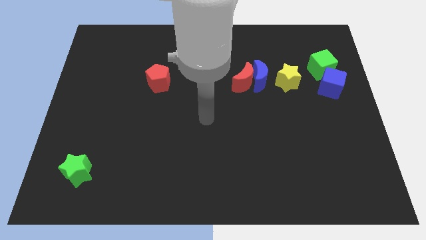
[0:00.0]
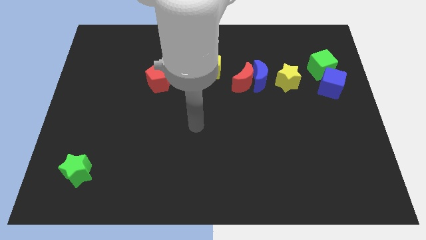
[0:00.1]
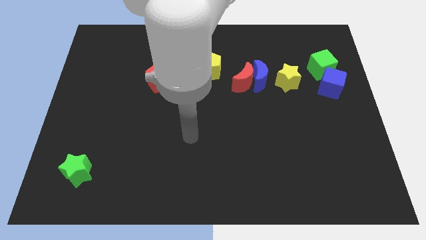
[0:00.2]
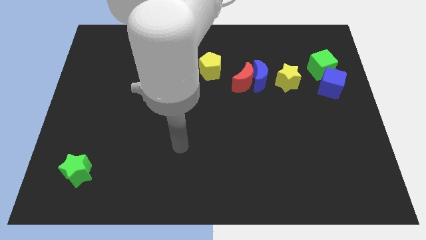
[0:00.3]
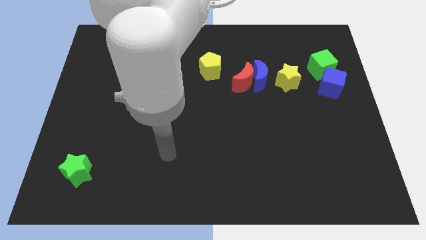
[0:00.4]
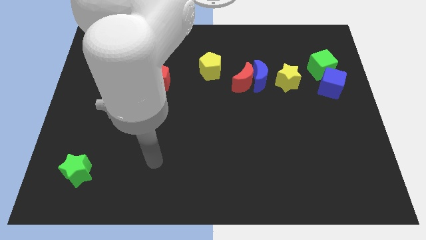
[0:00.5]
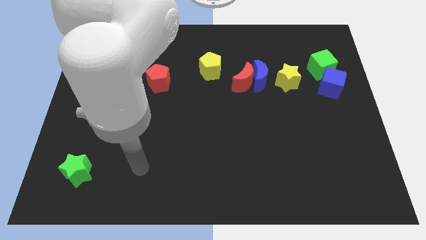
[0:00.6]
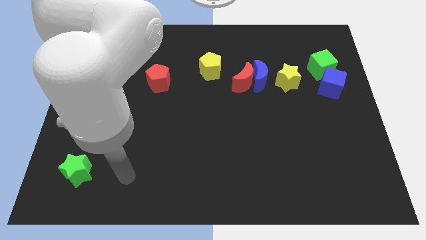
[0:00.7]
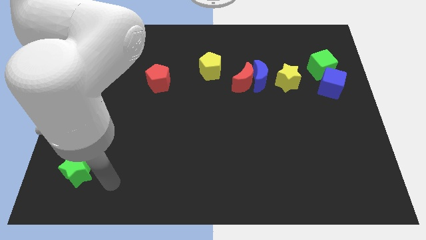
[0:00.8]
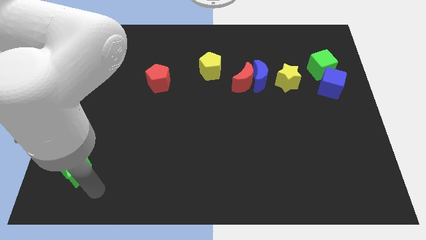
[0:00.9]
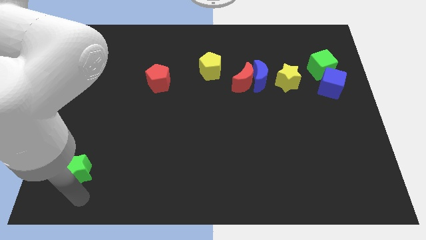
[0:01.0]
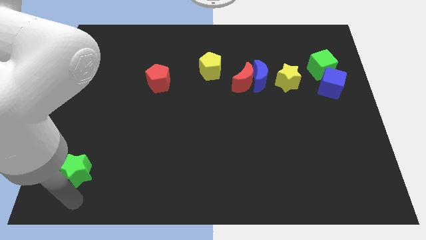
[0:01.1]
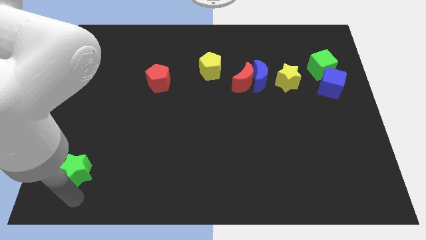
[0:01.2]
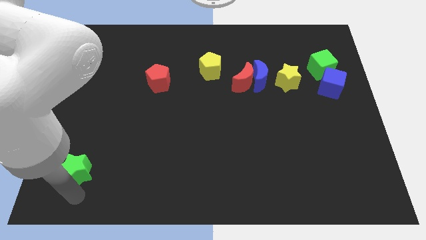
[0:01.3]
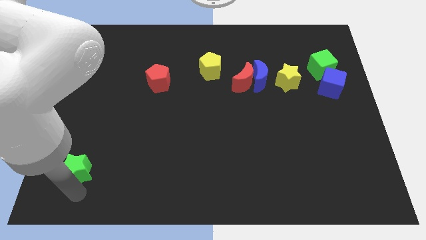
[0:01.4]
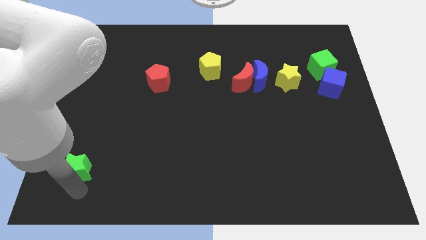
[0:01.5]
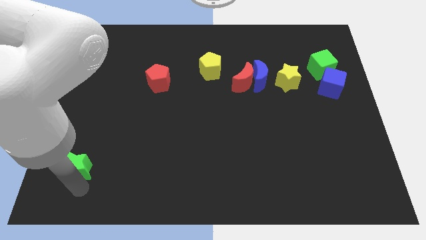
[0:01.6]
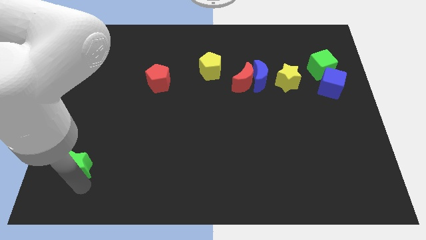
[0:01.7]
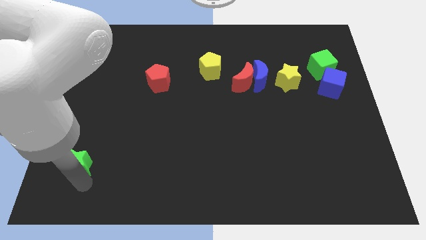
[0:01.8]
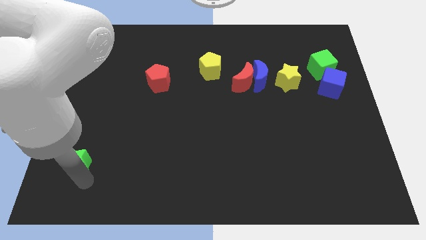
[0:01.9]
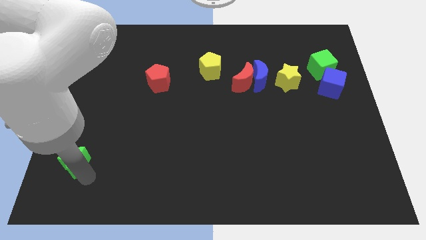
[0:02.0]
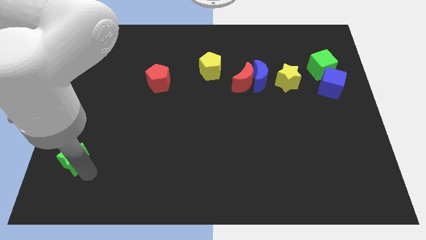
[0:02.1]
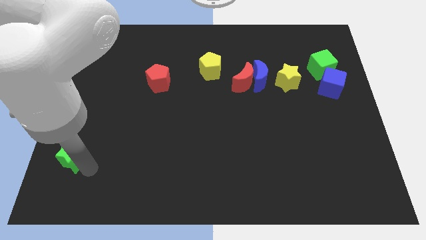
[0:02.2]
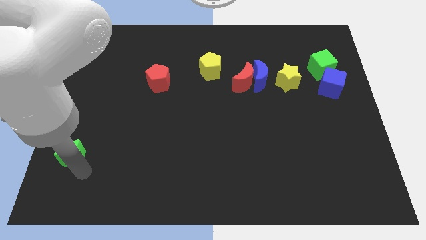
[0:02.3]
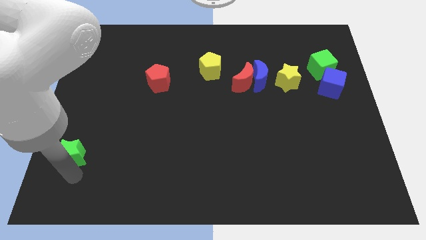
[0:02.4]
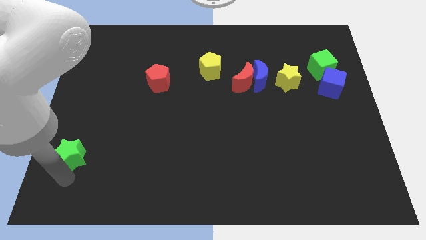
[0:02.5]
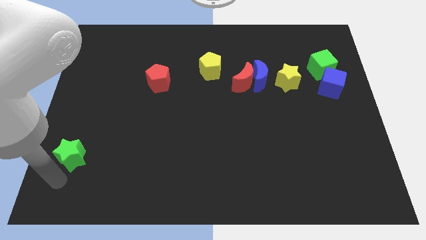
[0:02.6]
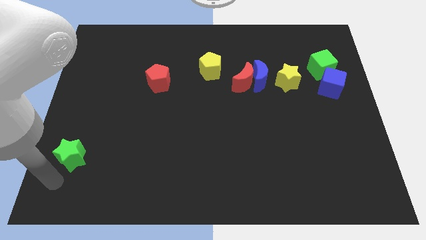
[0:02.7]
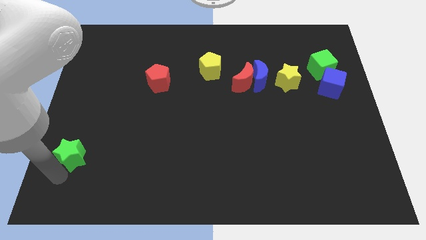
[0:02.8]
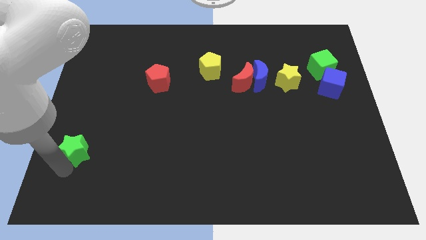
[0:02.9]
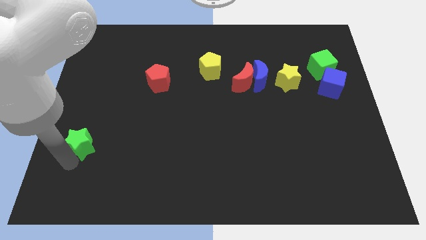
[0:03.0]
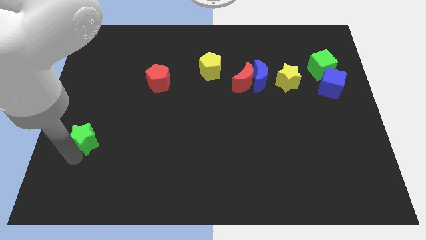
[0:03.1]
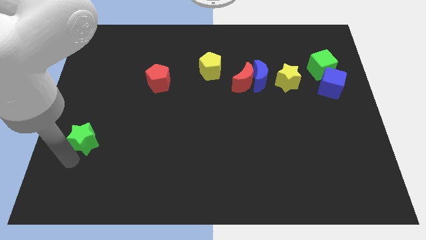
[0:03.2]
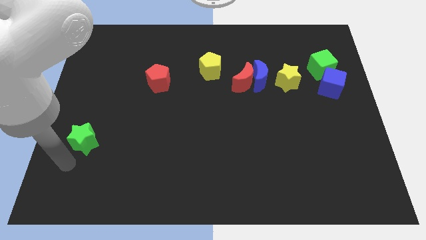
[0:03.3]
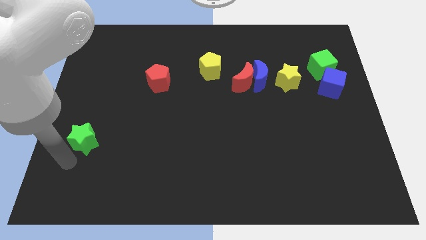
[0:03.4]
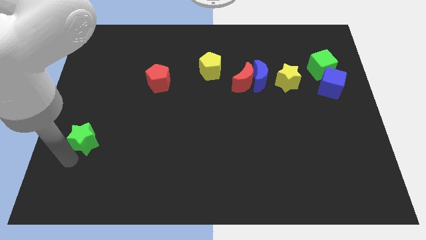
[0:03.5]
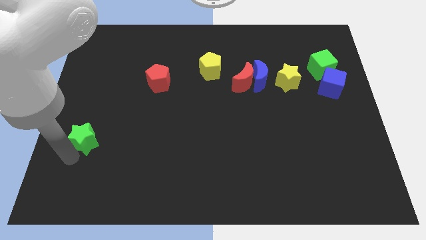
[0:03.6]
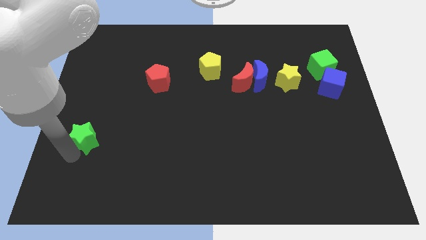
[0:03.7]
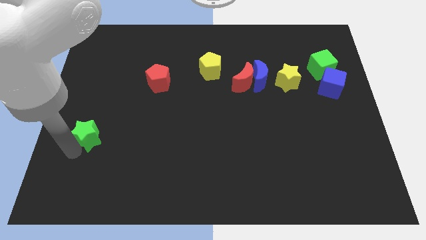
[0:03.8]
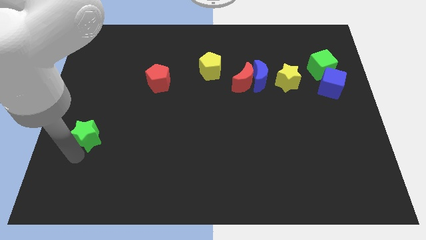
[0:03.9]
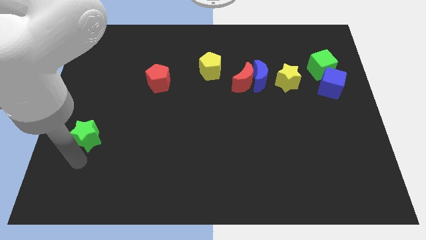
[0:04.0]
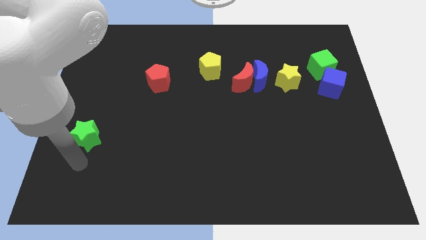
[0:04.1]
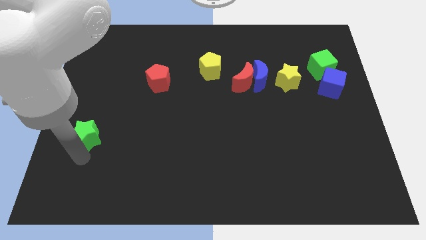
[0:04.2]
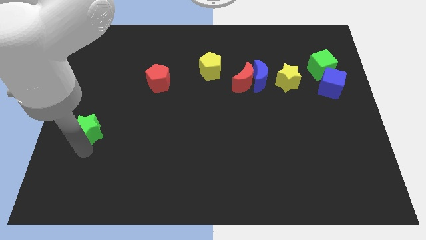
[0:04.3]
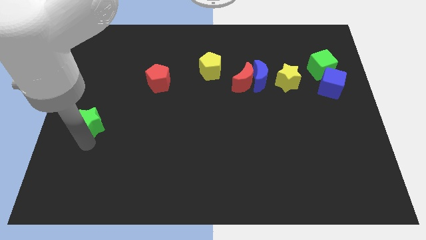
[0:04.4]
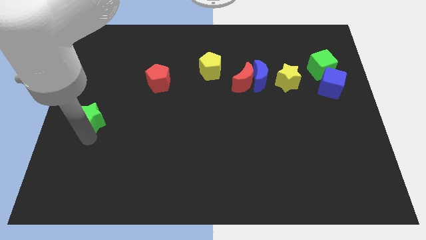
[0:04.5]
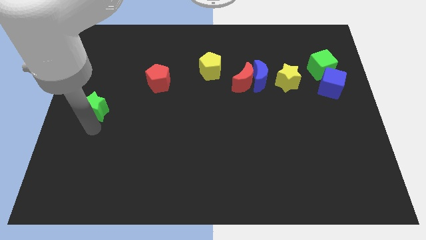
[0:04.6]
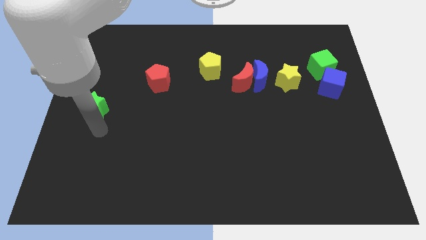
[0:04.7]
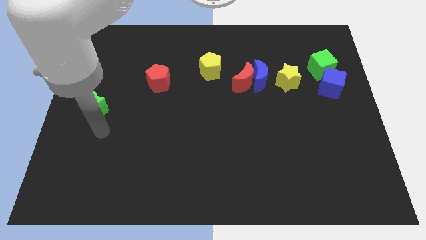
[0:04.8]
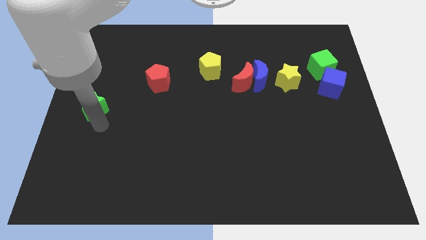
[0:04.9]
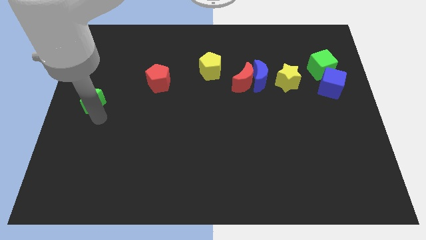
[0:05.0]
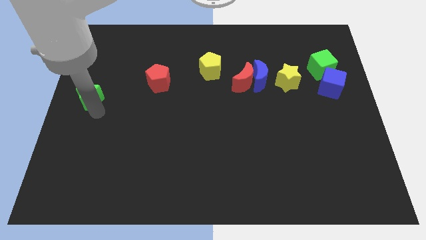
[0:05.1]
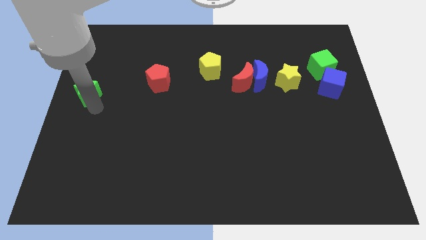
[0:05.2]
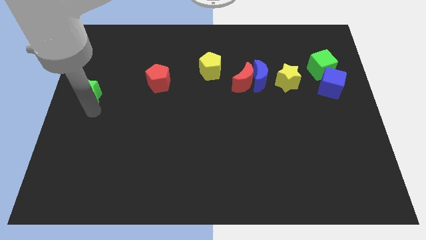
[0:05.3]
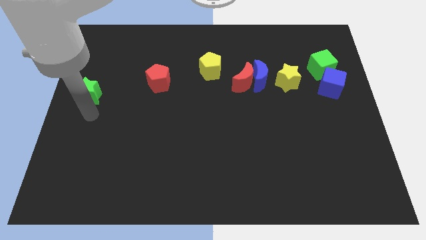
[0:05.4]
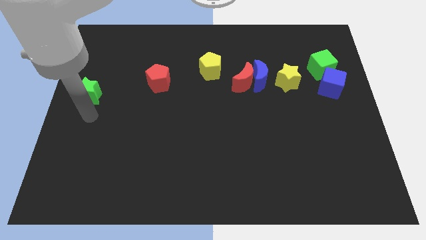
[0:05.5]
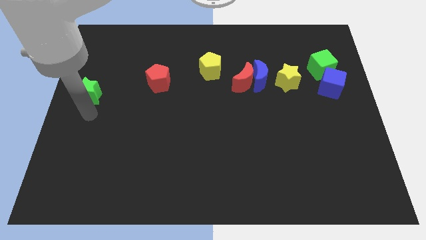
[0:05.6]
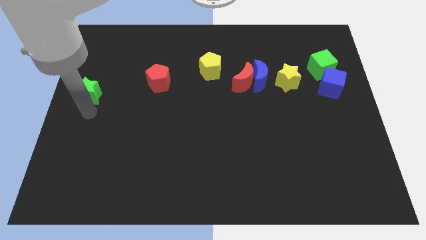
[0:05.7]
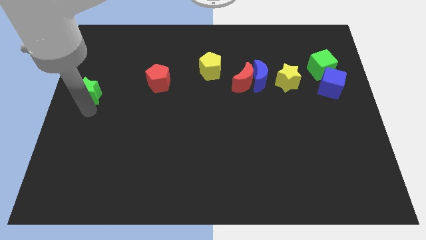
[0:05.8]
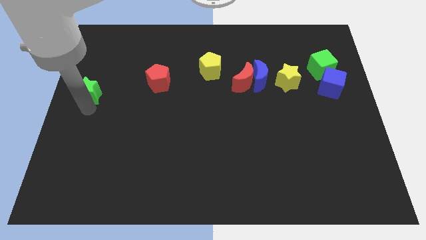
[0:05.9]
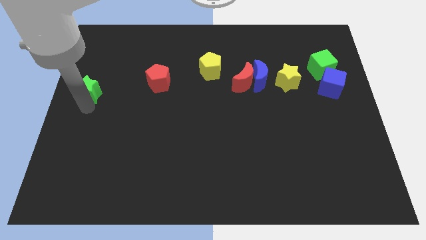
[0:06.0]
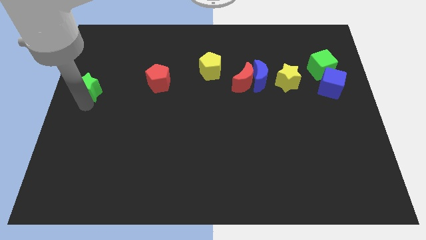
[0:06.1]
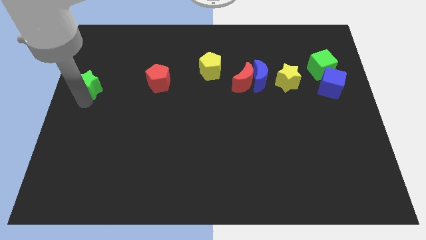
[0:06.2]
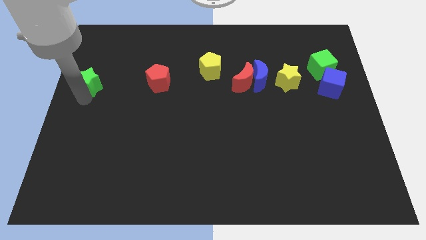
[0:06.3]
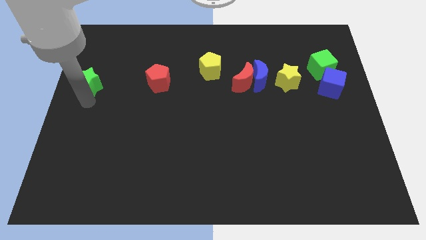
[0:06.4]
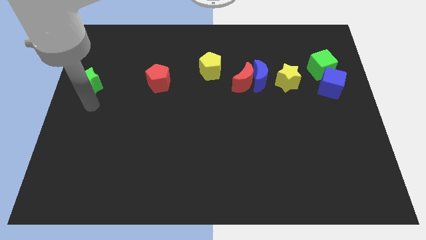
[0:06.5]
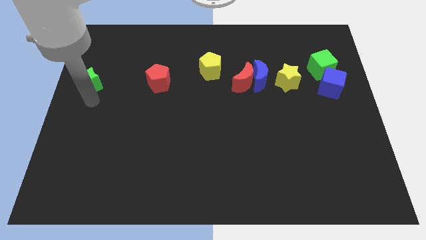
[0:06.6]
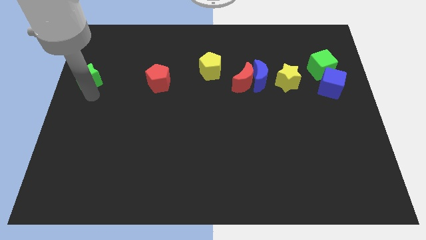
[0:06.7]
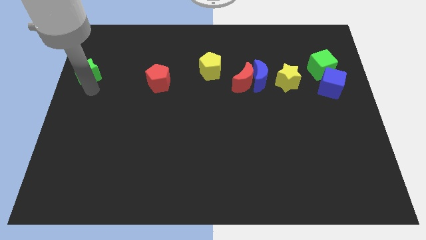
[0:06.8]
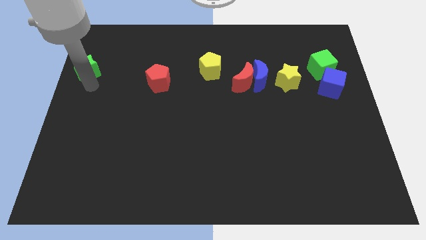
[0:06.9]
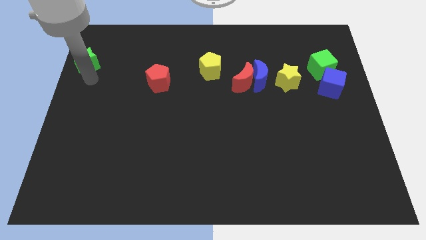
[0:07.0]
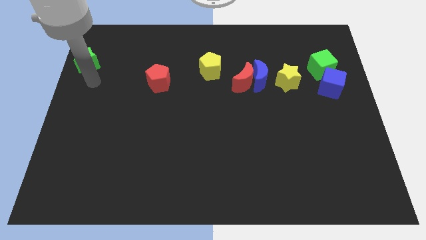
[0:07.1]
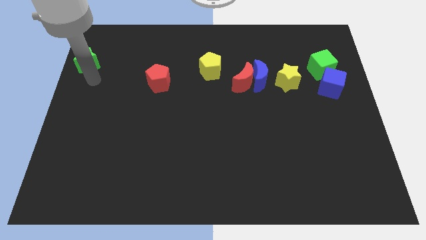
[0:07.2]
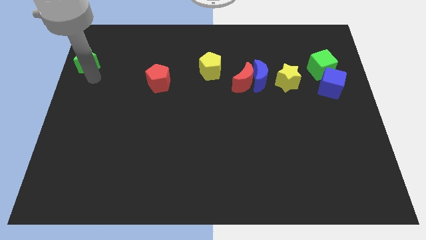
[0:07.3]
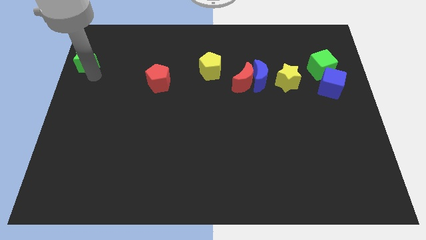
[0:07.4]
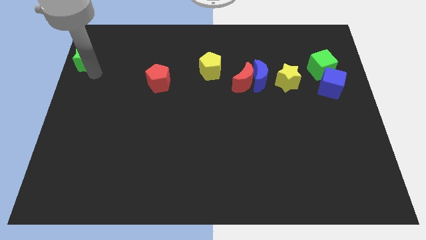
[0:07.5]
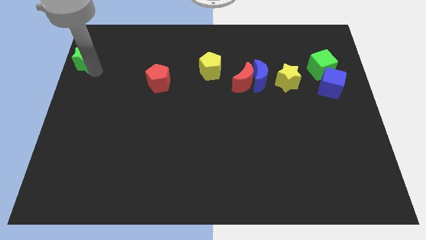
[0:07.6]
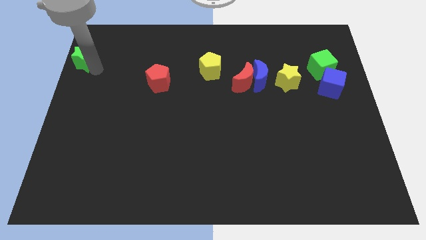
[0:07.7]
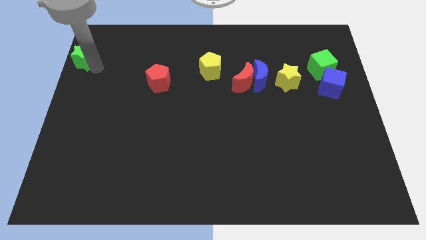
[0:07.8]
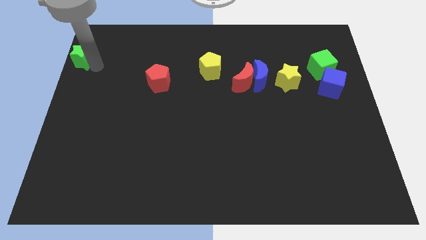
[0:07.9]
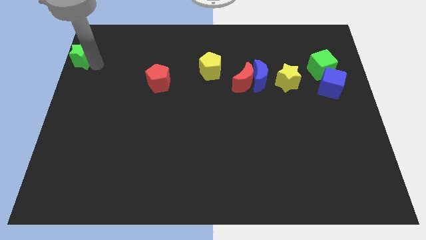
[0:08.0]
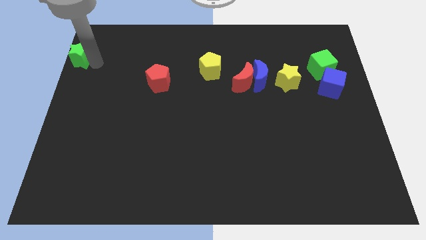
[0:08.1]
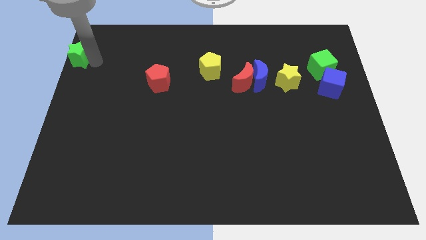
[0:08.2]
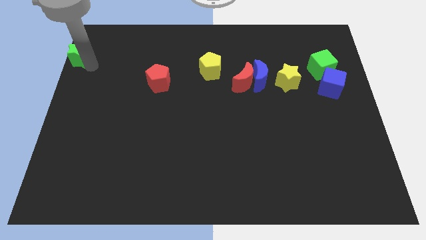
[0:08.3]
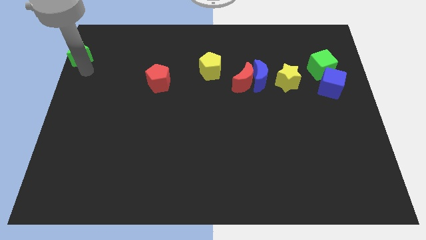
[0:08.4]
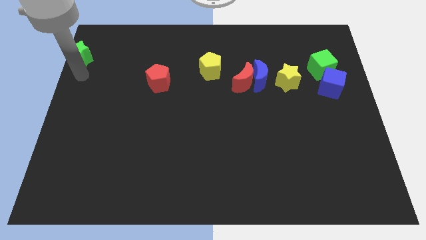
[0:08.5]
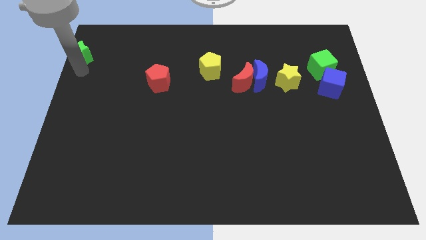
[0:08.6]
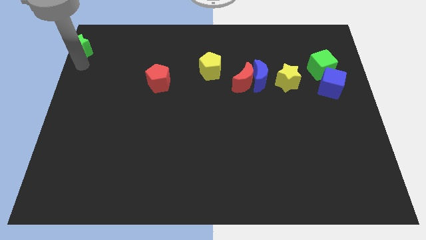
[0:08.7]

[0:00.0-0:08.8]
push the green star to the top left of the board
